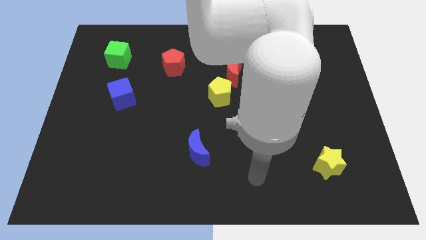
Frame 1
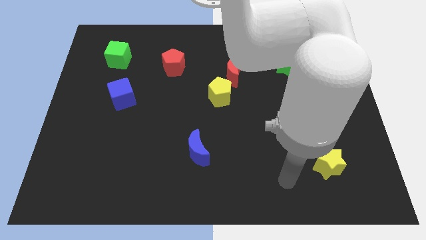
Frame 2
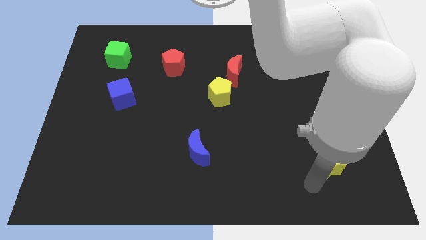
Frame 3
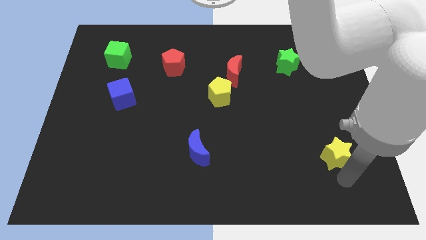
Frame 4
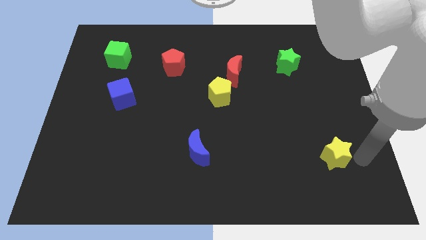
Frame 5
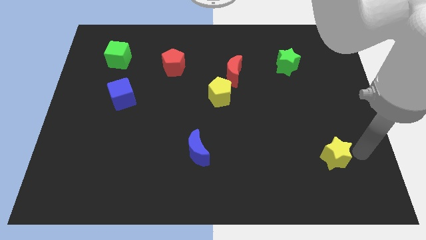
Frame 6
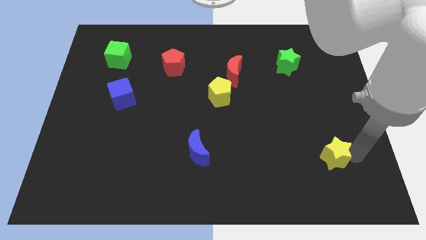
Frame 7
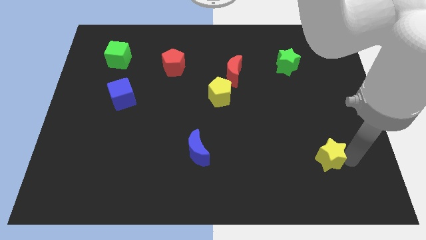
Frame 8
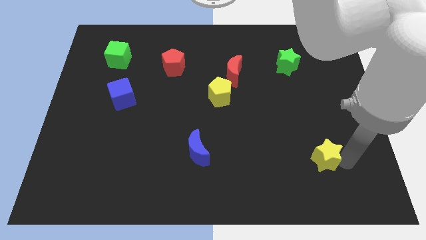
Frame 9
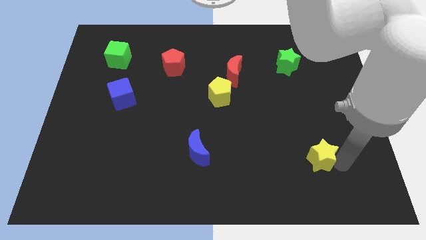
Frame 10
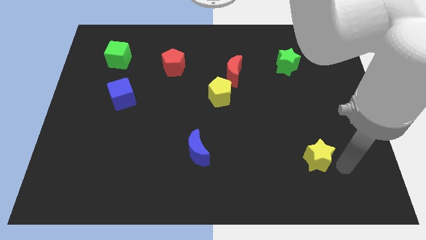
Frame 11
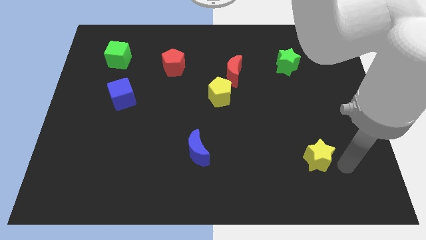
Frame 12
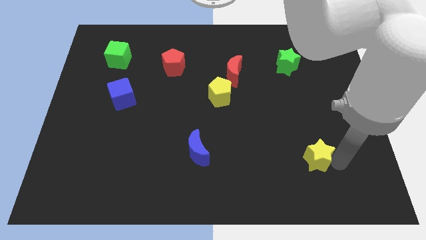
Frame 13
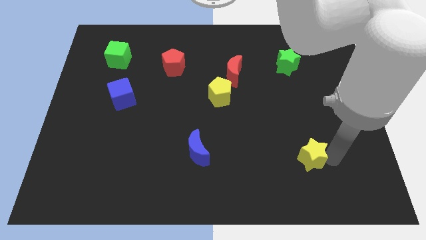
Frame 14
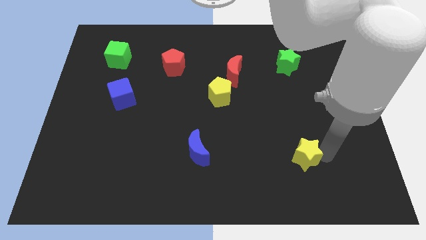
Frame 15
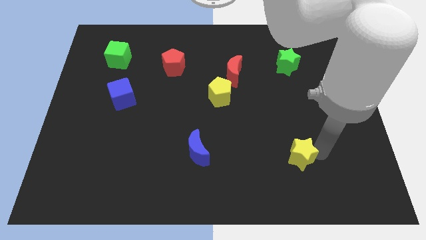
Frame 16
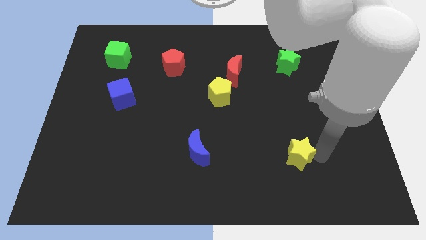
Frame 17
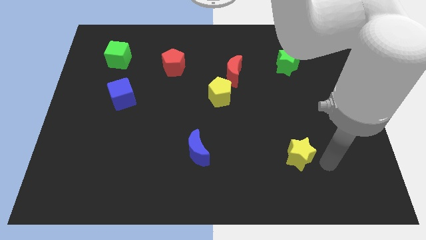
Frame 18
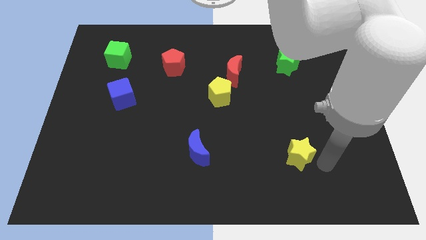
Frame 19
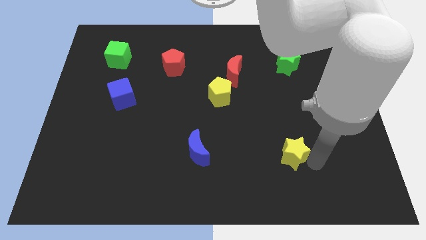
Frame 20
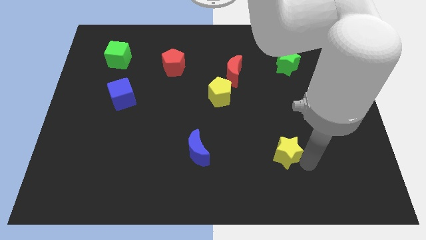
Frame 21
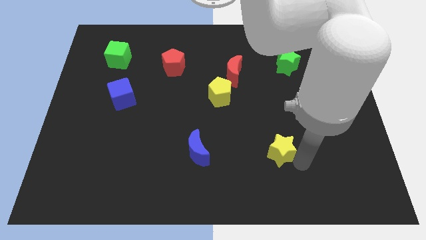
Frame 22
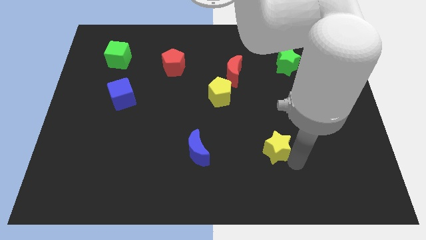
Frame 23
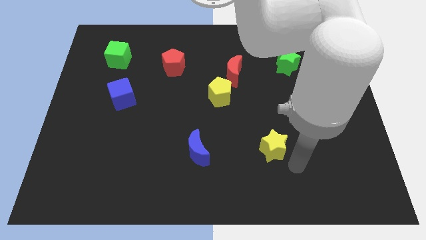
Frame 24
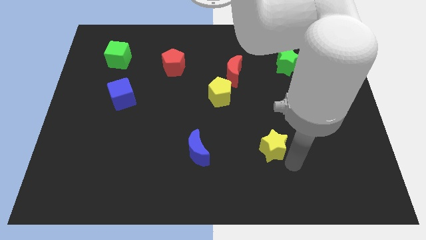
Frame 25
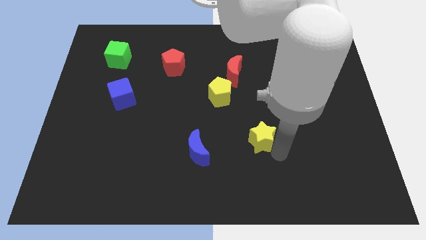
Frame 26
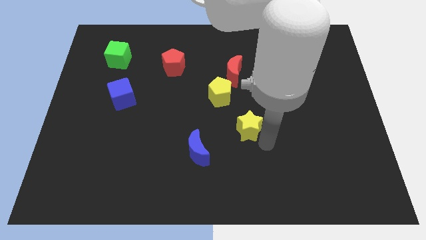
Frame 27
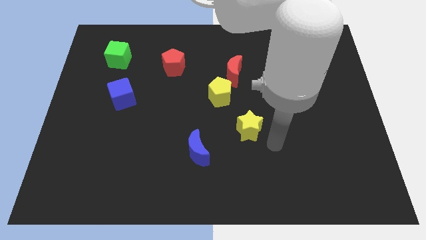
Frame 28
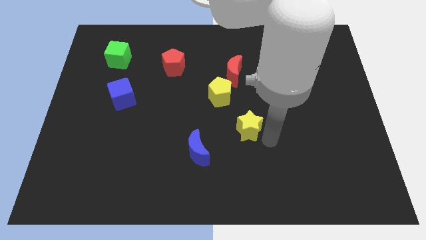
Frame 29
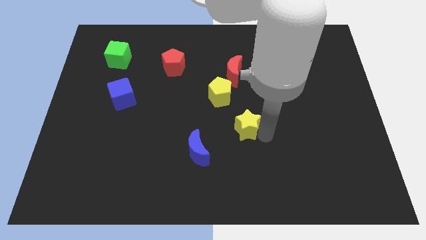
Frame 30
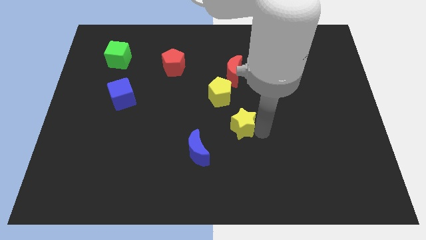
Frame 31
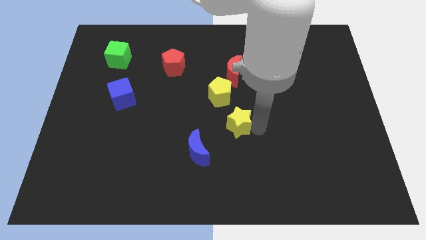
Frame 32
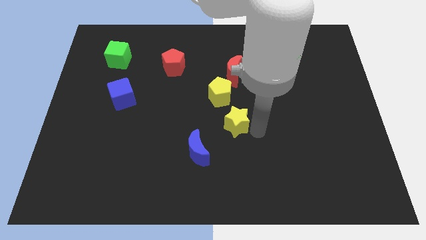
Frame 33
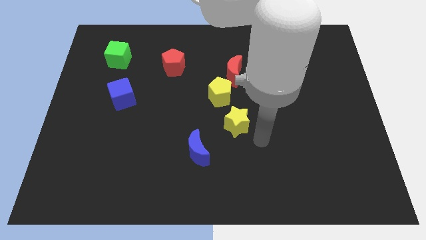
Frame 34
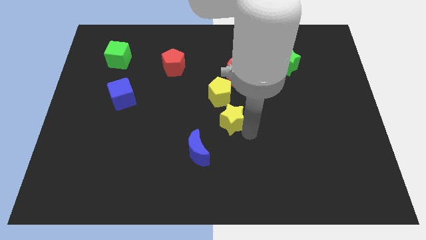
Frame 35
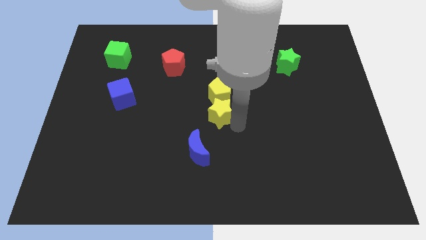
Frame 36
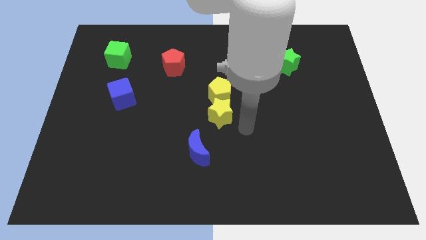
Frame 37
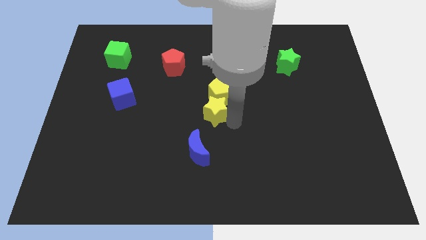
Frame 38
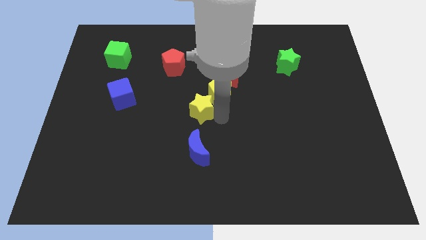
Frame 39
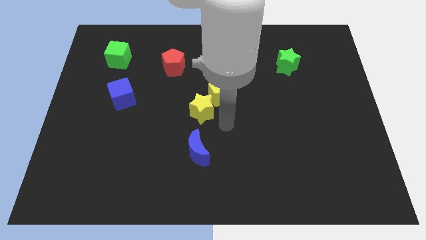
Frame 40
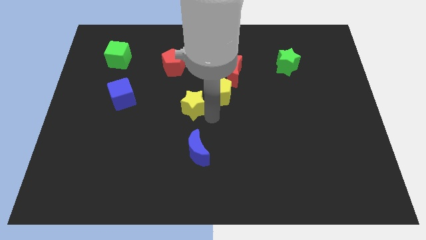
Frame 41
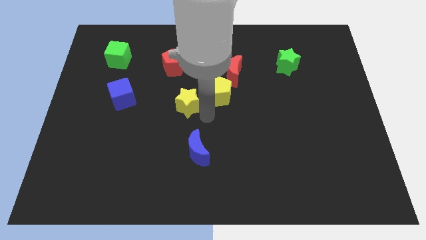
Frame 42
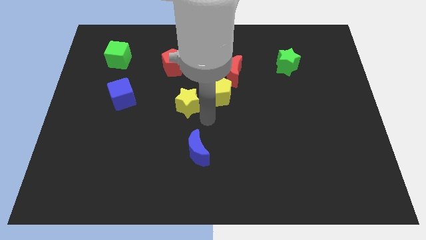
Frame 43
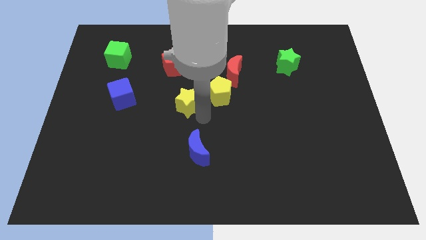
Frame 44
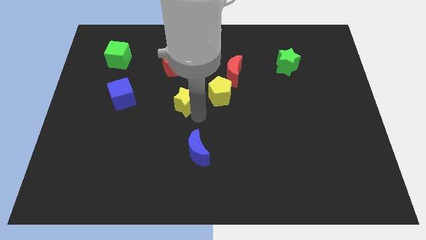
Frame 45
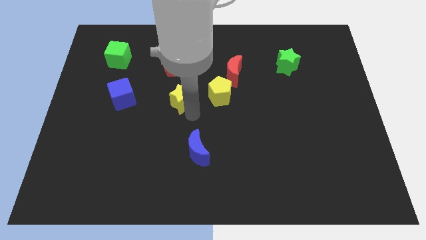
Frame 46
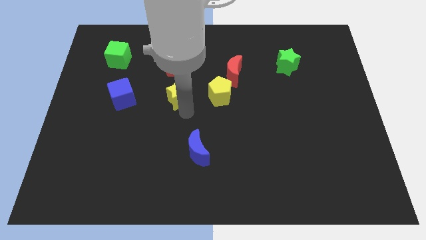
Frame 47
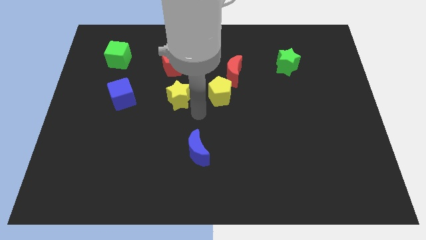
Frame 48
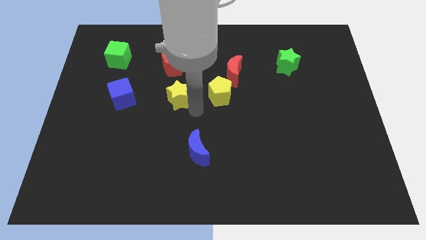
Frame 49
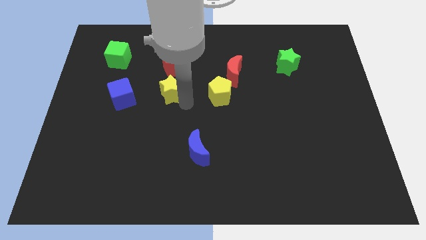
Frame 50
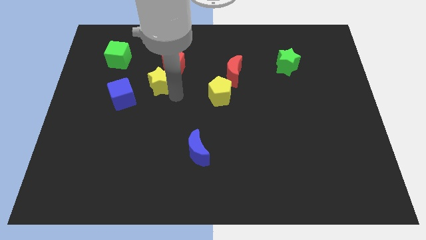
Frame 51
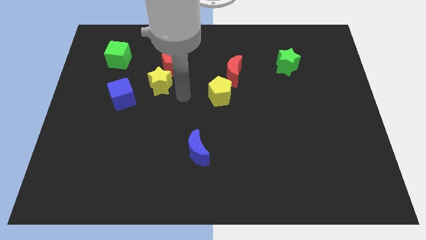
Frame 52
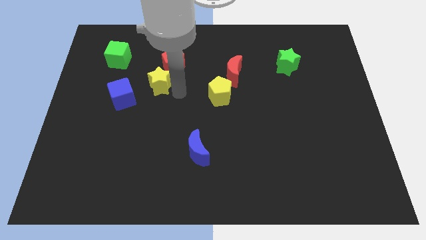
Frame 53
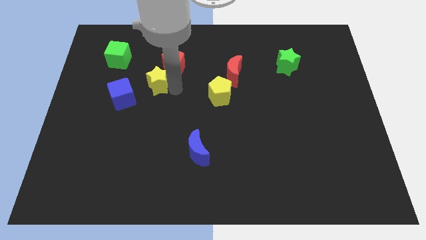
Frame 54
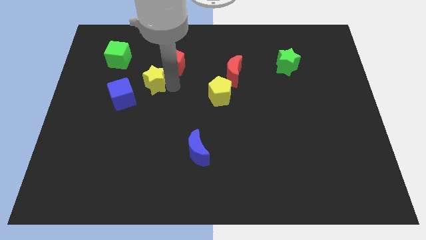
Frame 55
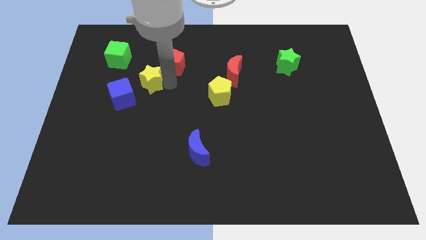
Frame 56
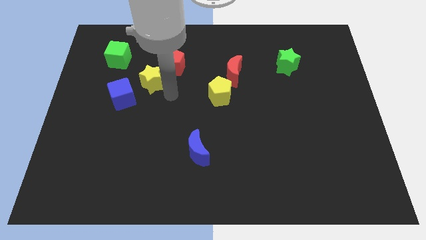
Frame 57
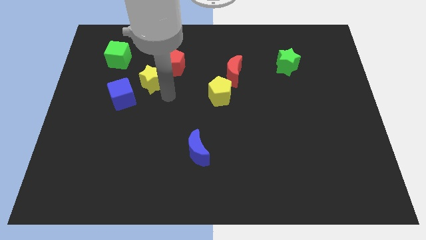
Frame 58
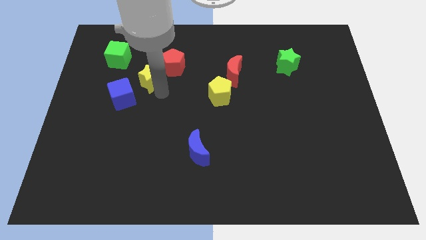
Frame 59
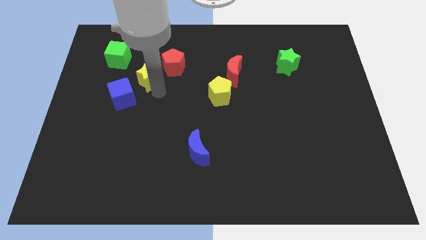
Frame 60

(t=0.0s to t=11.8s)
slide the yellow star to the left side of the red pentagon

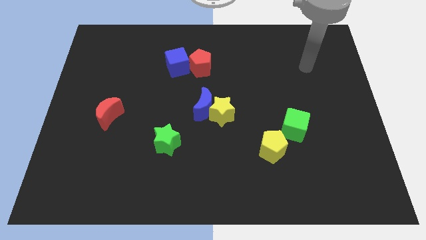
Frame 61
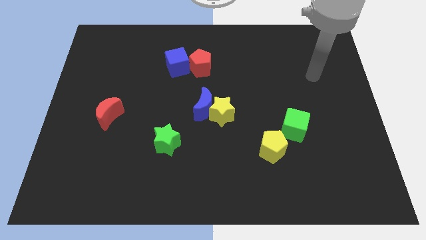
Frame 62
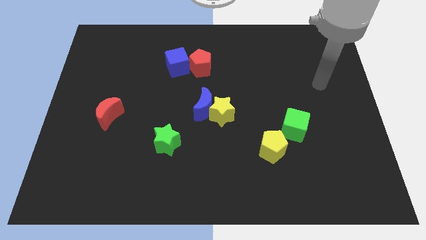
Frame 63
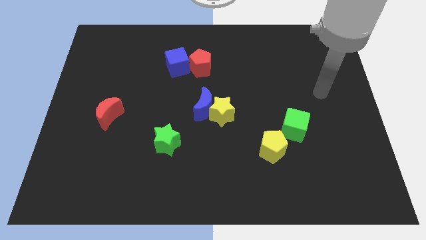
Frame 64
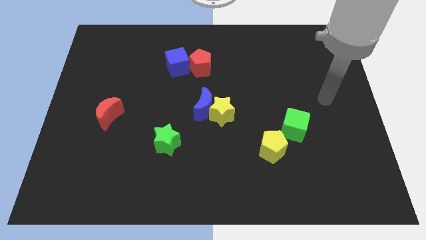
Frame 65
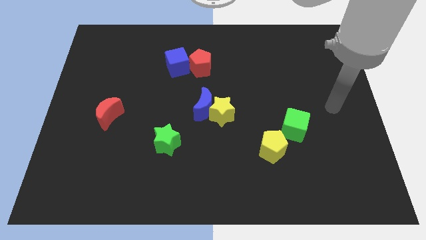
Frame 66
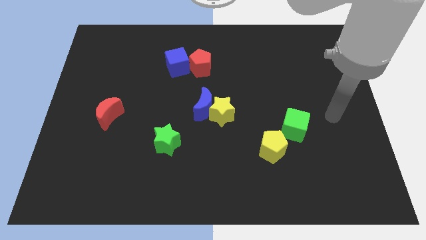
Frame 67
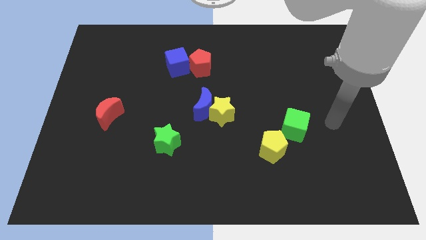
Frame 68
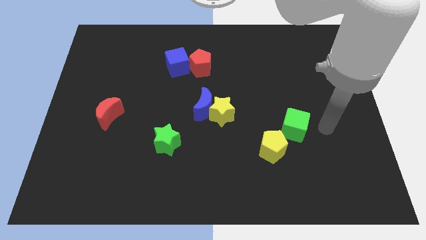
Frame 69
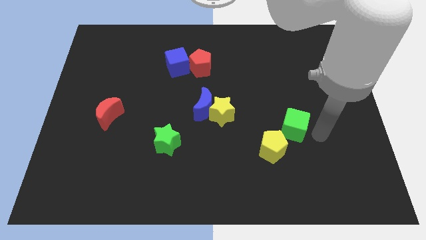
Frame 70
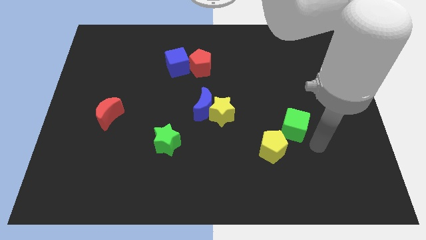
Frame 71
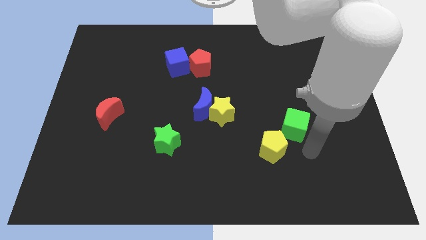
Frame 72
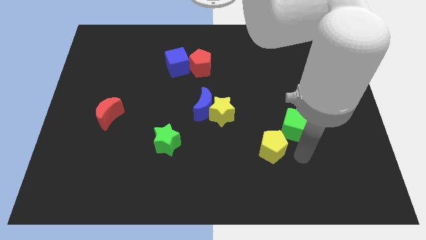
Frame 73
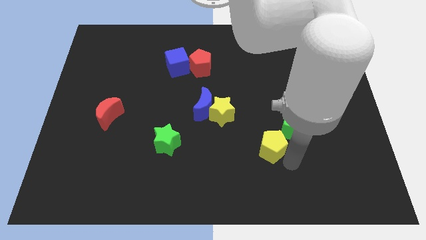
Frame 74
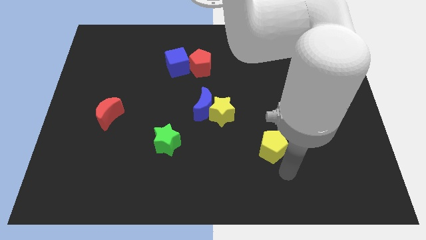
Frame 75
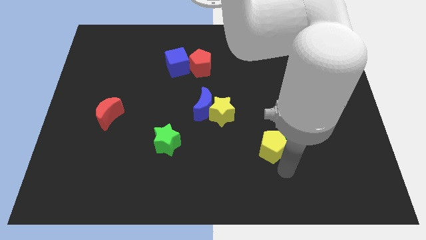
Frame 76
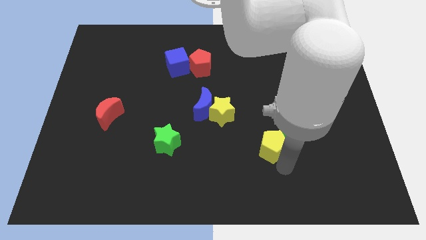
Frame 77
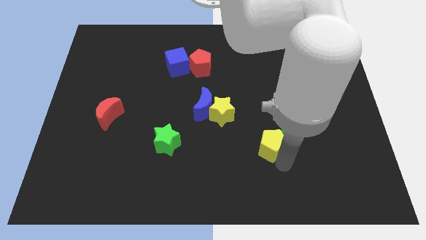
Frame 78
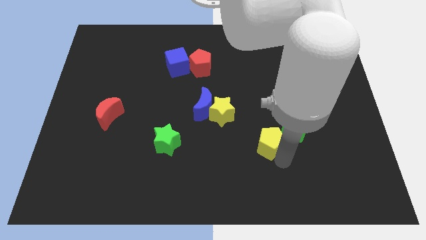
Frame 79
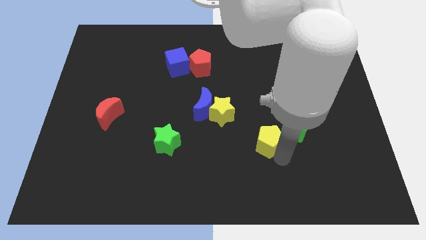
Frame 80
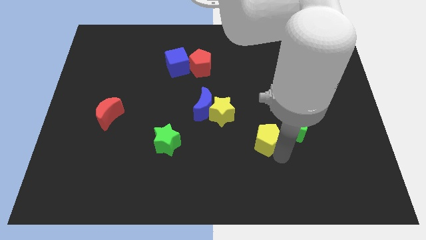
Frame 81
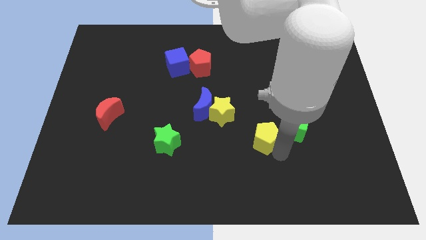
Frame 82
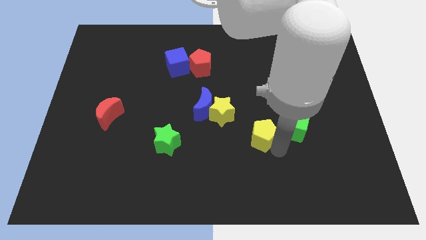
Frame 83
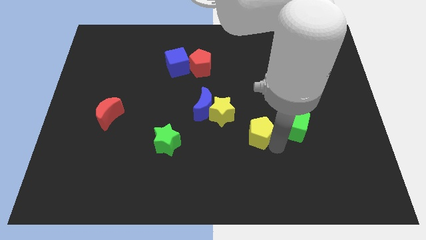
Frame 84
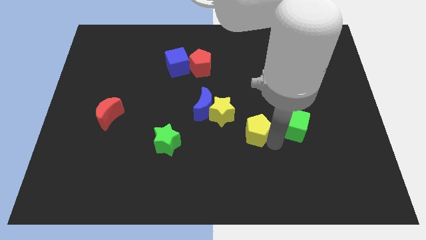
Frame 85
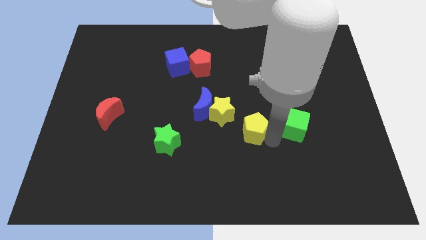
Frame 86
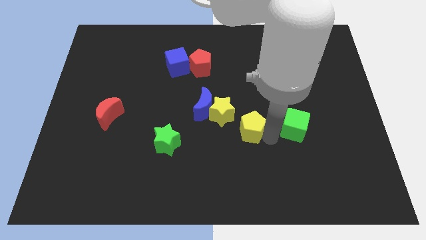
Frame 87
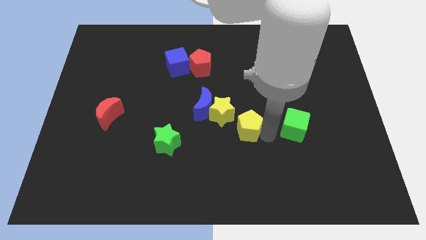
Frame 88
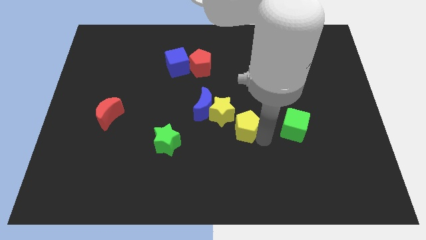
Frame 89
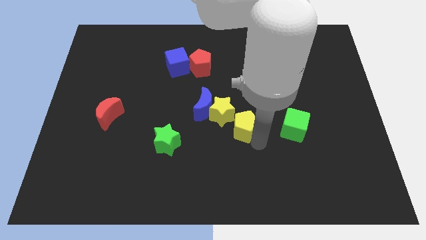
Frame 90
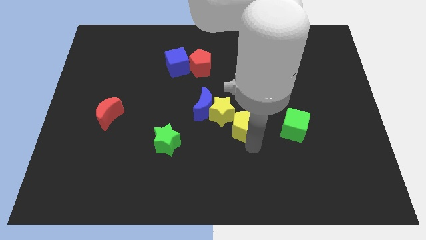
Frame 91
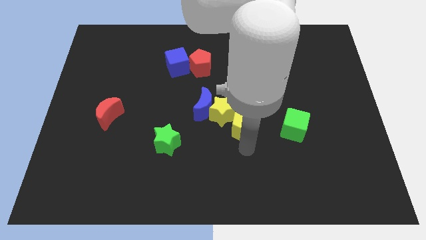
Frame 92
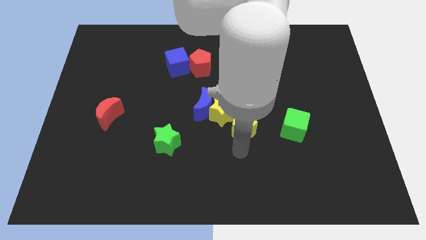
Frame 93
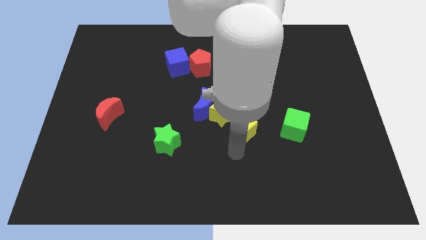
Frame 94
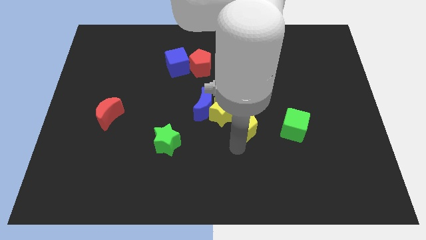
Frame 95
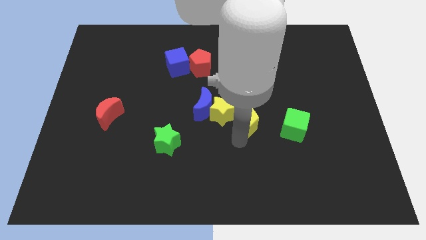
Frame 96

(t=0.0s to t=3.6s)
slide the yellow pentagon right of the blue moon
